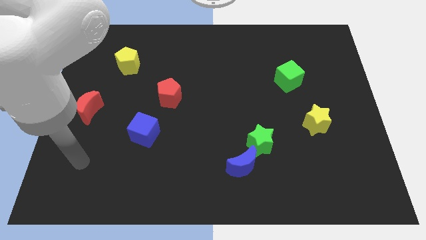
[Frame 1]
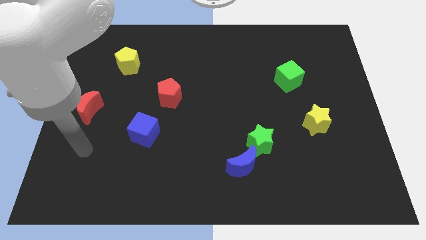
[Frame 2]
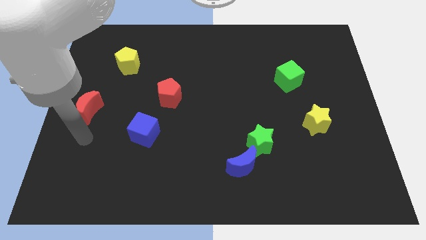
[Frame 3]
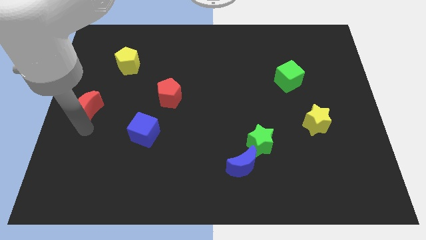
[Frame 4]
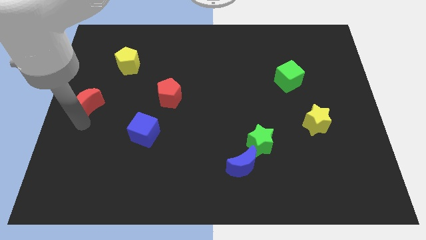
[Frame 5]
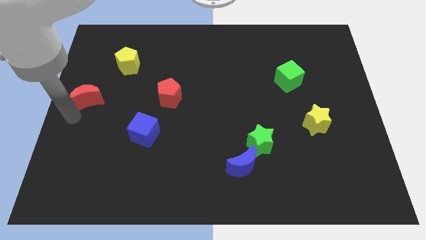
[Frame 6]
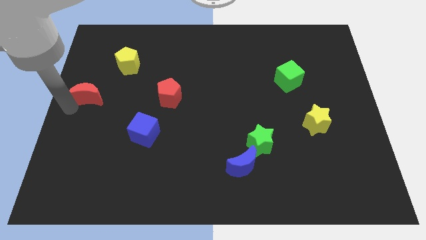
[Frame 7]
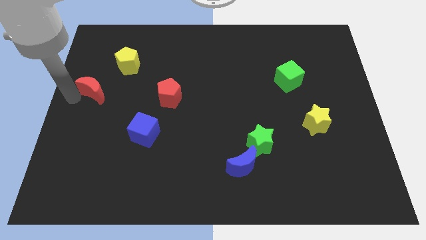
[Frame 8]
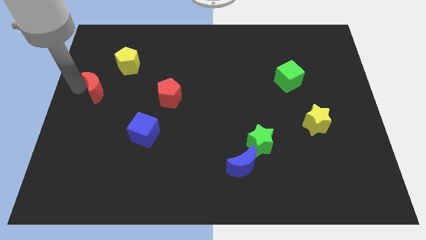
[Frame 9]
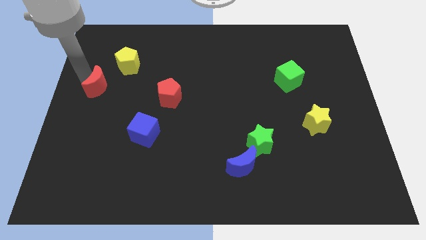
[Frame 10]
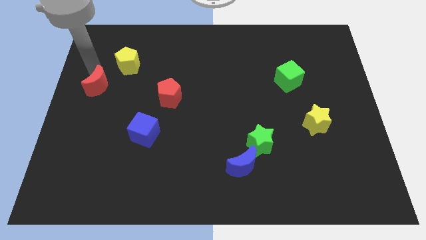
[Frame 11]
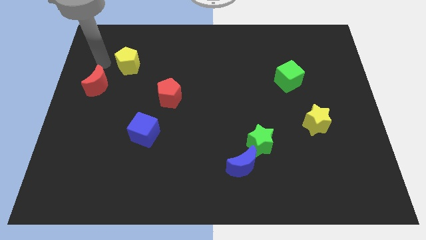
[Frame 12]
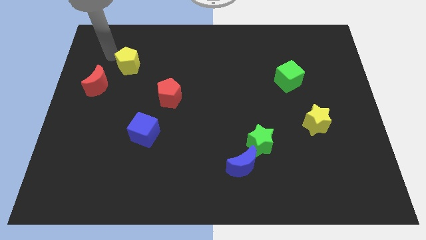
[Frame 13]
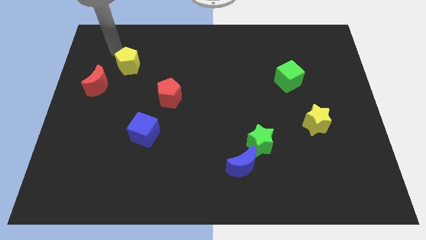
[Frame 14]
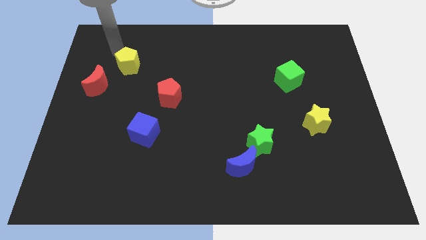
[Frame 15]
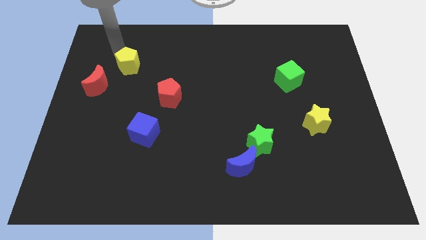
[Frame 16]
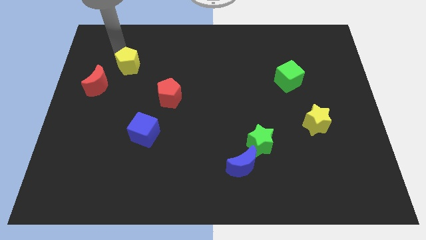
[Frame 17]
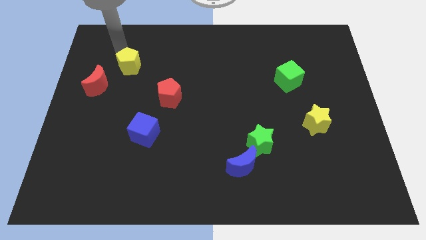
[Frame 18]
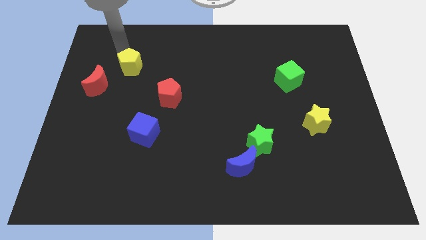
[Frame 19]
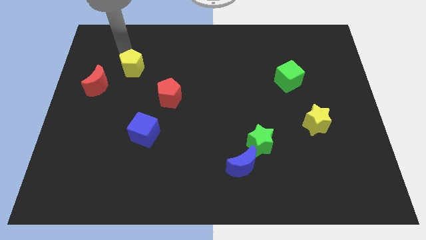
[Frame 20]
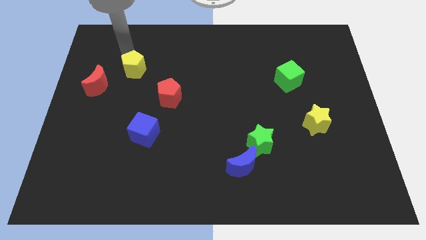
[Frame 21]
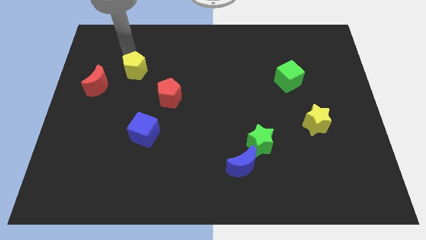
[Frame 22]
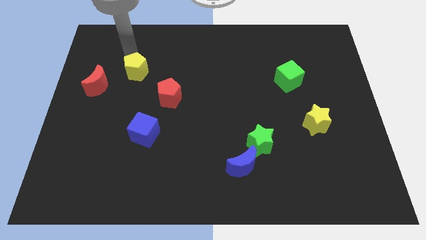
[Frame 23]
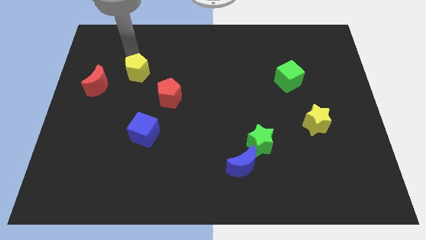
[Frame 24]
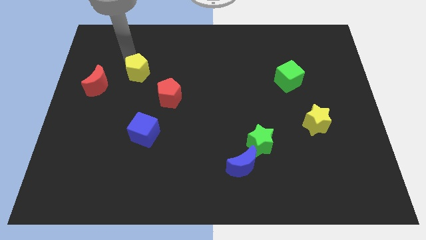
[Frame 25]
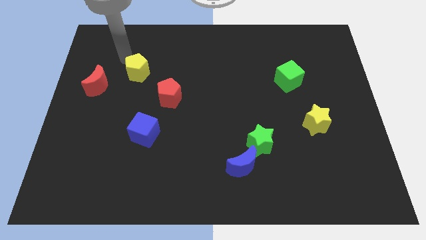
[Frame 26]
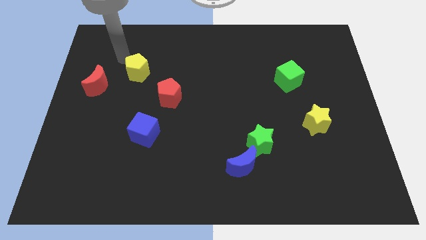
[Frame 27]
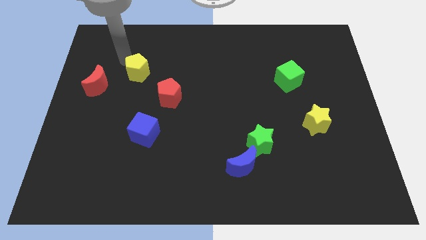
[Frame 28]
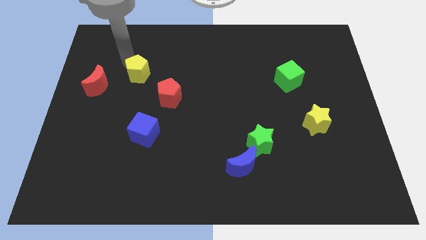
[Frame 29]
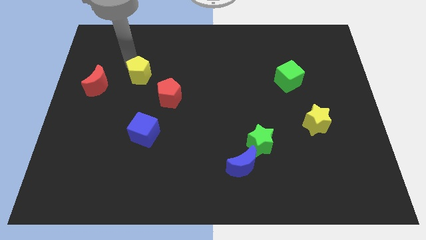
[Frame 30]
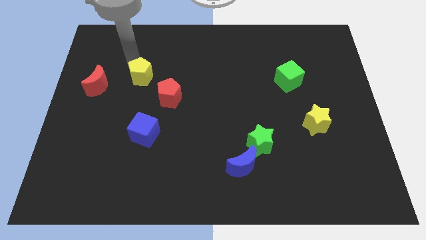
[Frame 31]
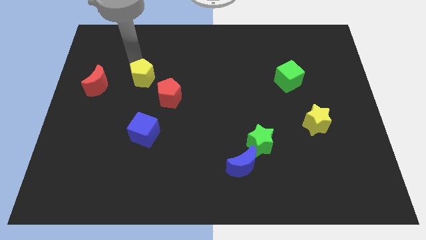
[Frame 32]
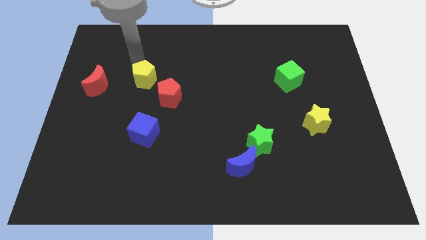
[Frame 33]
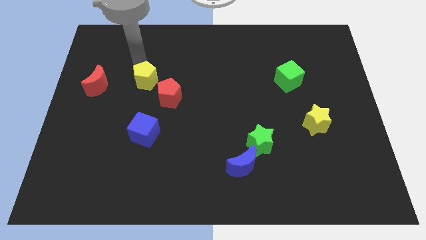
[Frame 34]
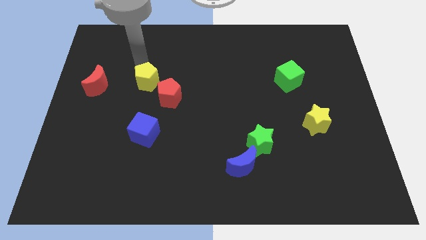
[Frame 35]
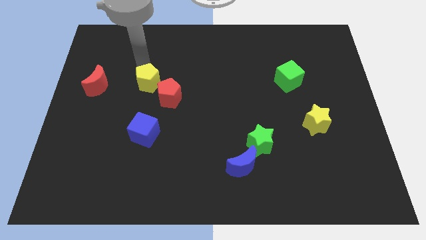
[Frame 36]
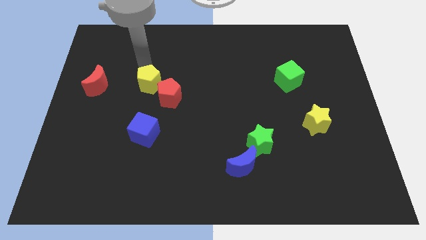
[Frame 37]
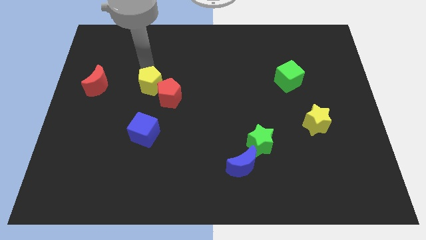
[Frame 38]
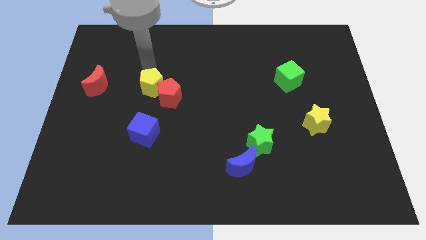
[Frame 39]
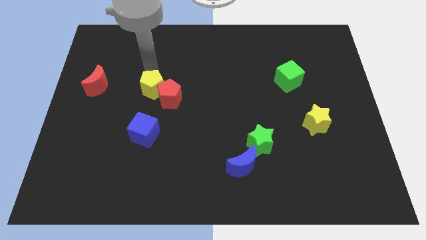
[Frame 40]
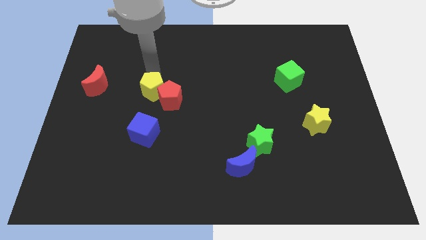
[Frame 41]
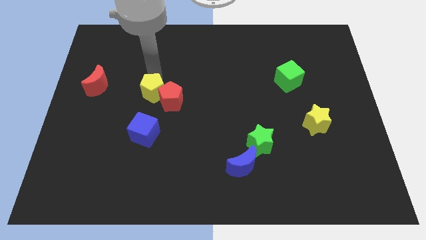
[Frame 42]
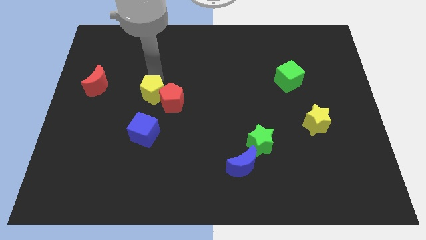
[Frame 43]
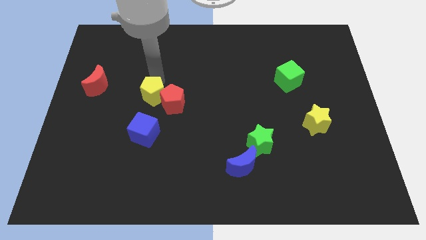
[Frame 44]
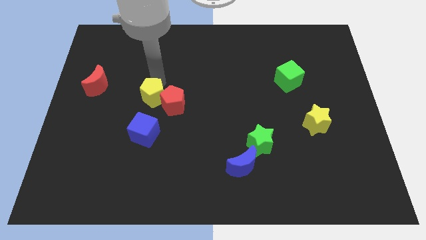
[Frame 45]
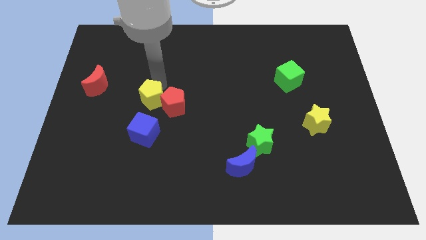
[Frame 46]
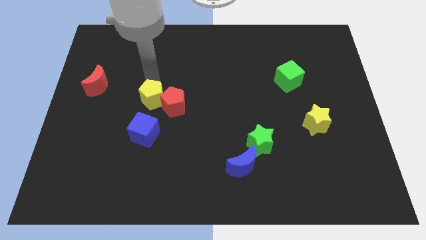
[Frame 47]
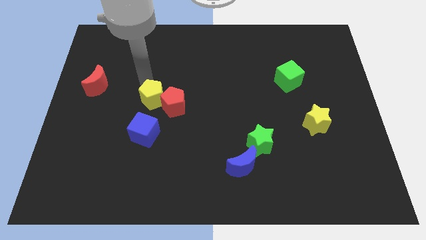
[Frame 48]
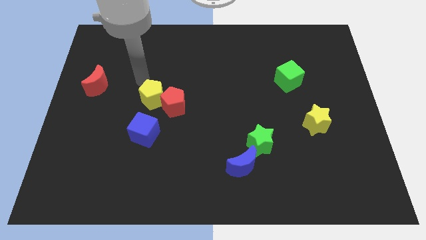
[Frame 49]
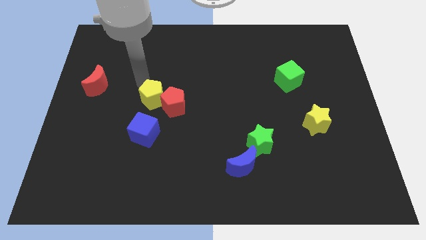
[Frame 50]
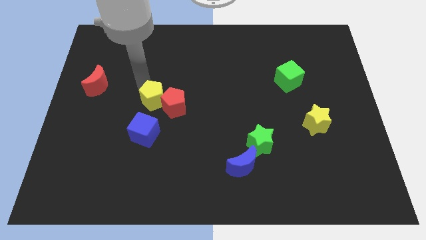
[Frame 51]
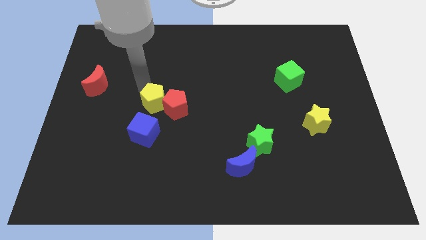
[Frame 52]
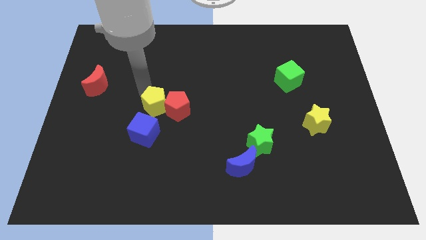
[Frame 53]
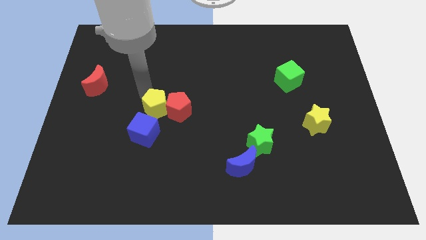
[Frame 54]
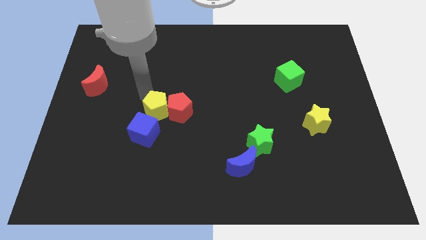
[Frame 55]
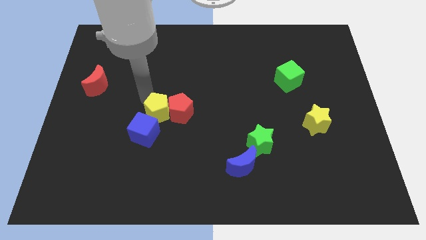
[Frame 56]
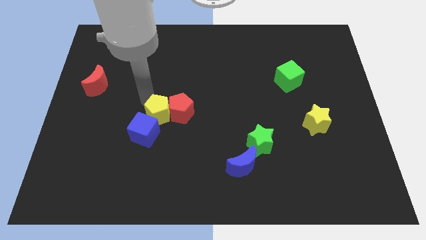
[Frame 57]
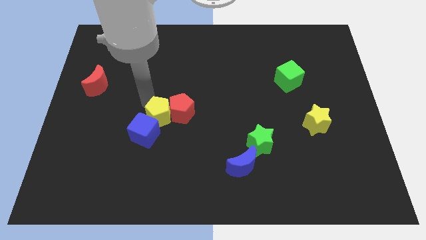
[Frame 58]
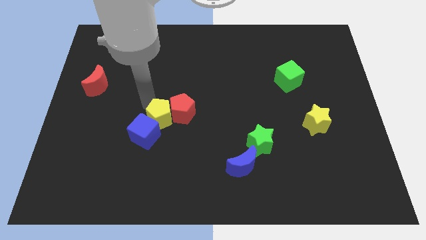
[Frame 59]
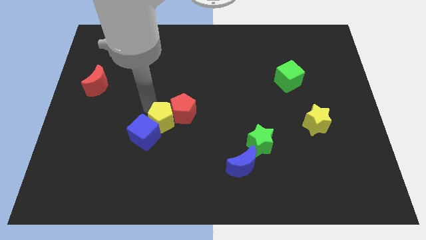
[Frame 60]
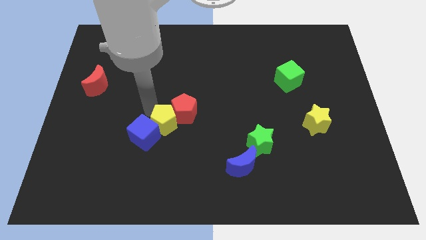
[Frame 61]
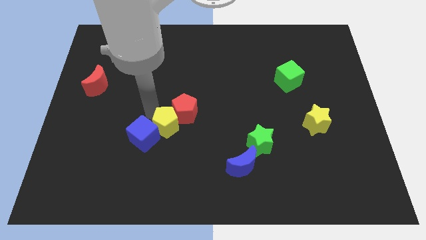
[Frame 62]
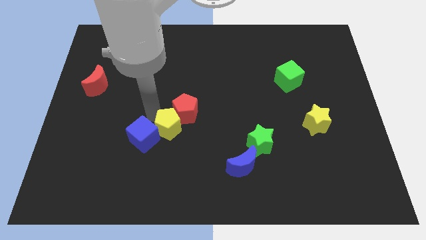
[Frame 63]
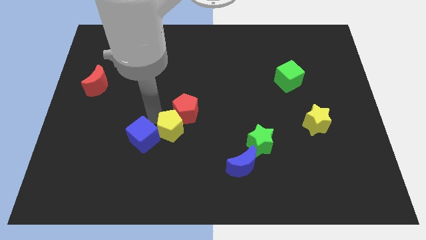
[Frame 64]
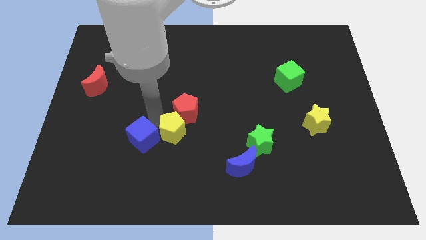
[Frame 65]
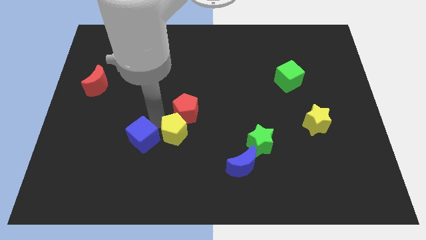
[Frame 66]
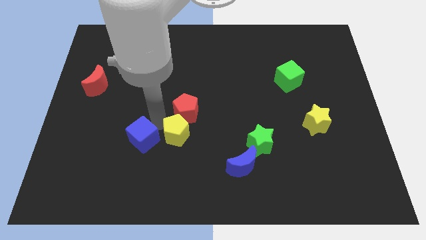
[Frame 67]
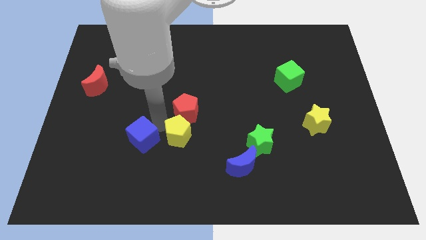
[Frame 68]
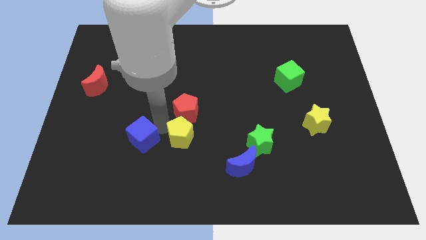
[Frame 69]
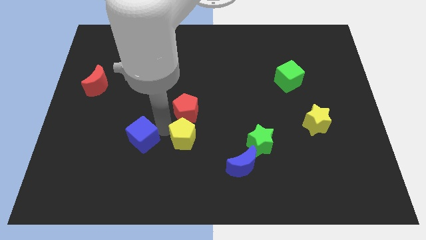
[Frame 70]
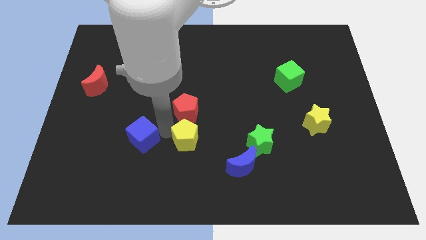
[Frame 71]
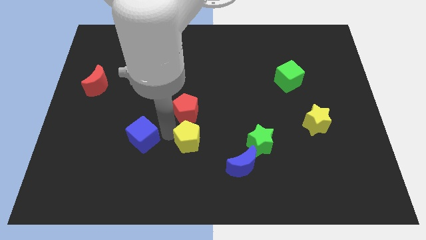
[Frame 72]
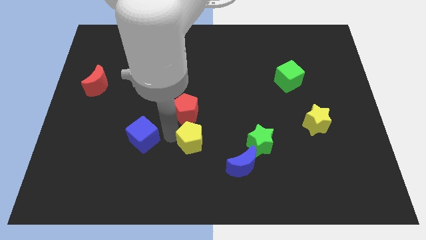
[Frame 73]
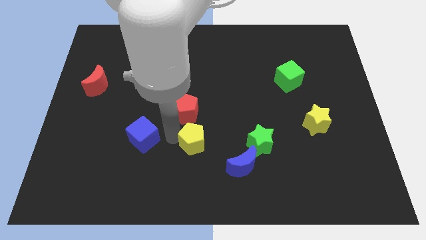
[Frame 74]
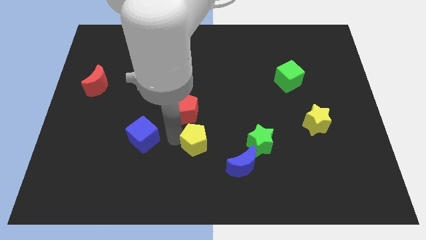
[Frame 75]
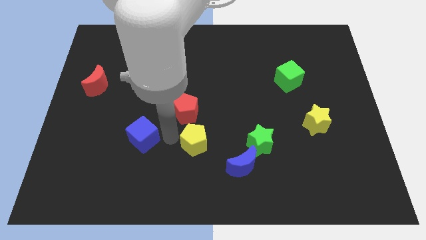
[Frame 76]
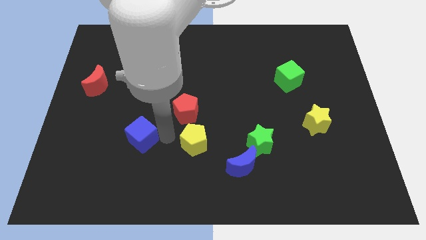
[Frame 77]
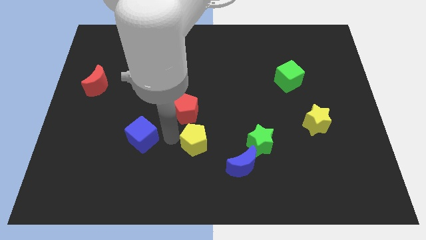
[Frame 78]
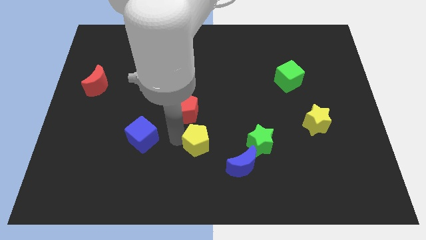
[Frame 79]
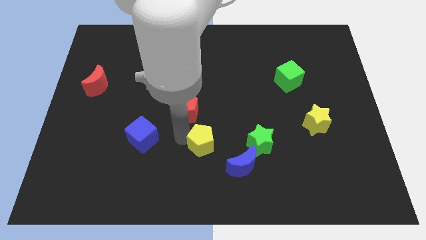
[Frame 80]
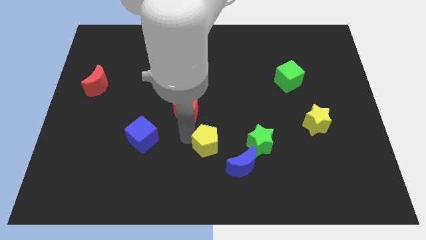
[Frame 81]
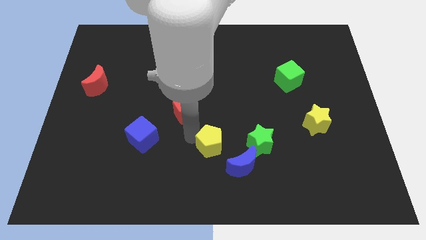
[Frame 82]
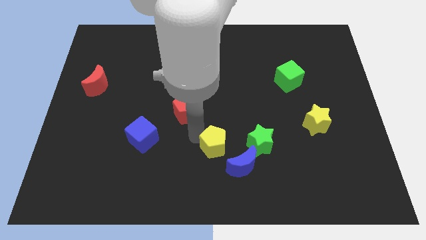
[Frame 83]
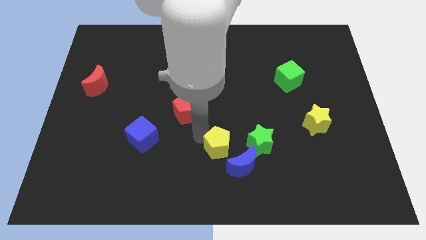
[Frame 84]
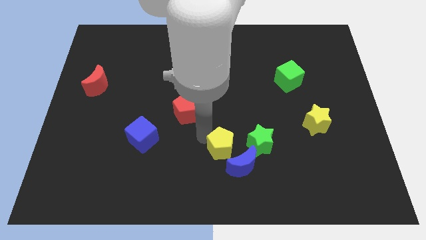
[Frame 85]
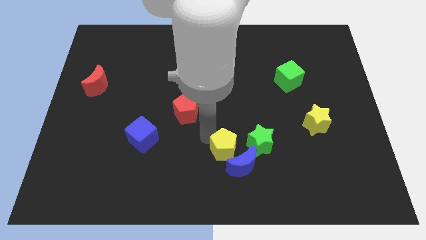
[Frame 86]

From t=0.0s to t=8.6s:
push the yellow pentagon towards the blue moon
